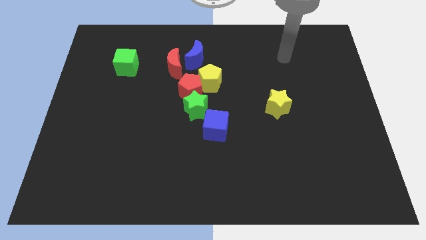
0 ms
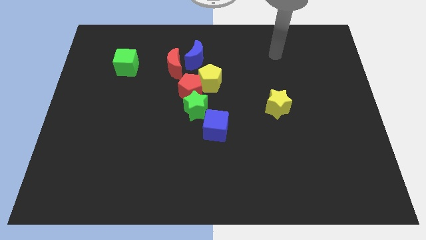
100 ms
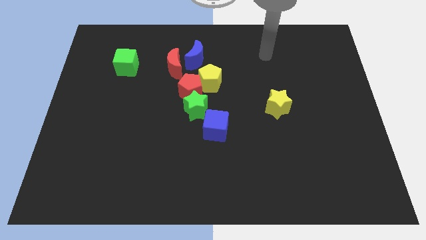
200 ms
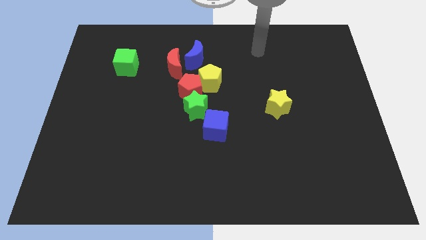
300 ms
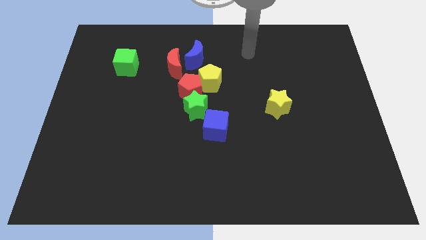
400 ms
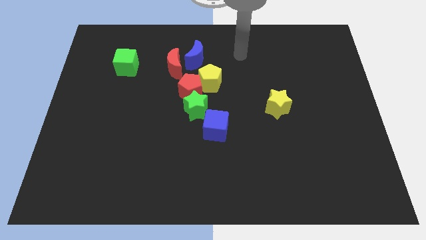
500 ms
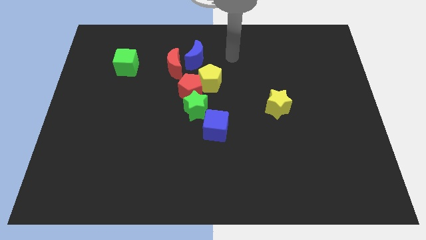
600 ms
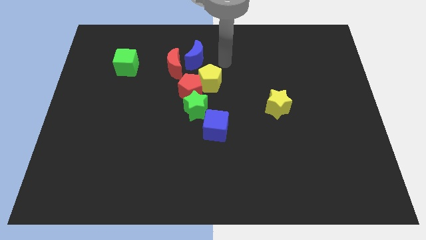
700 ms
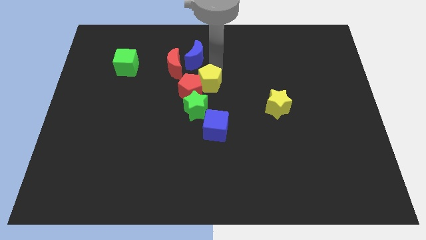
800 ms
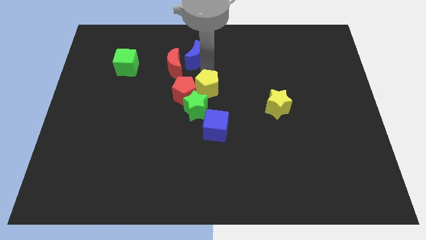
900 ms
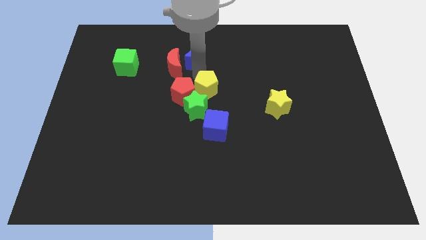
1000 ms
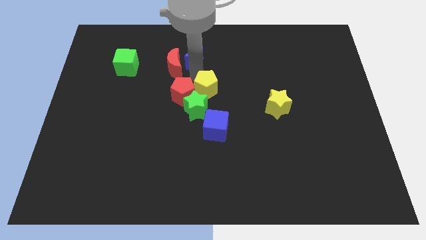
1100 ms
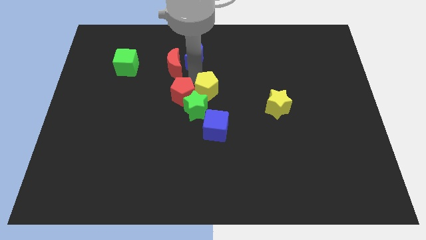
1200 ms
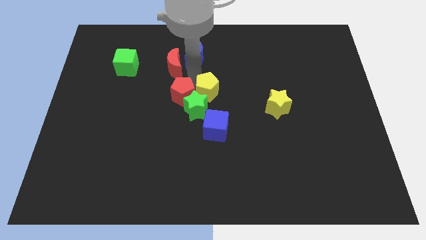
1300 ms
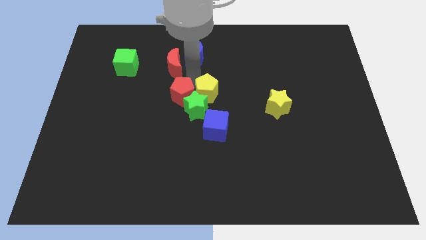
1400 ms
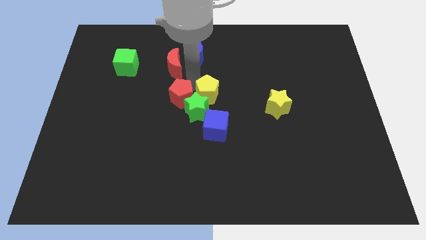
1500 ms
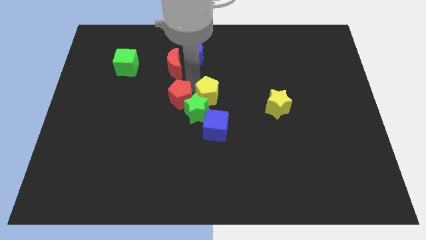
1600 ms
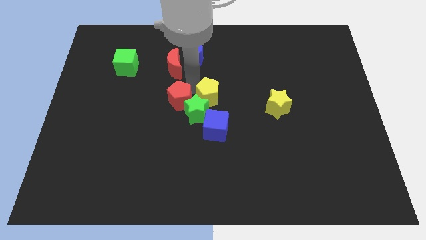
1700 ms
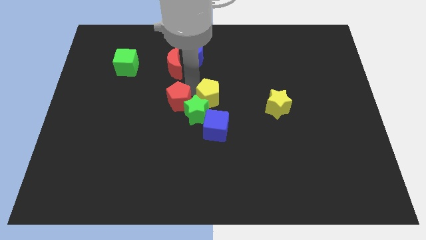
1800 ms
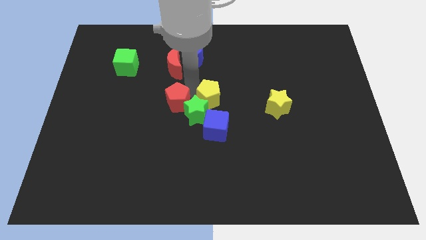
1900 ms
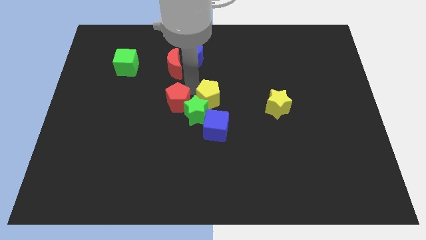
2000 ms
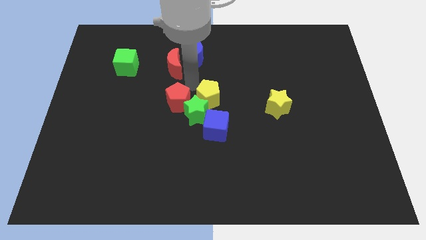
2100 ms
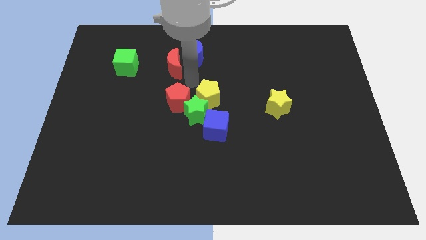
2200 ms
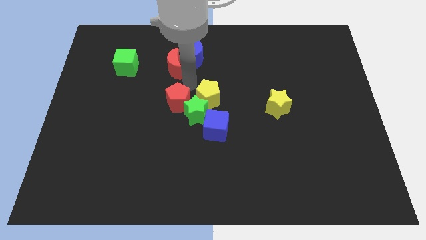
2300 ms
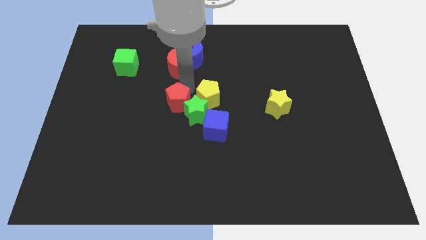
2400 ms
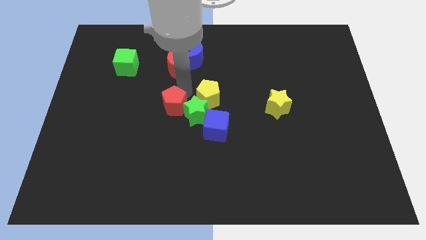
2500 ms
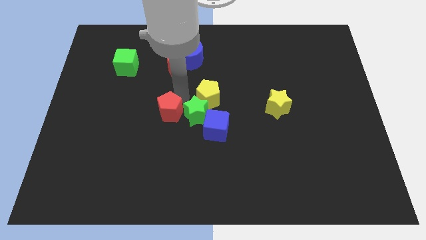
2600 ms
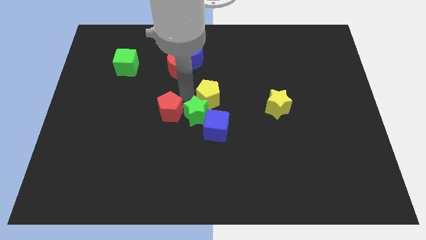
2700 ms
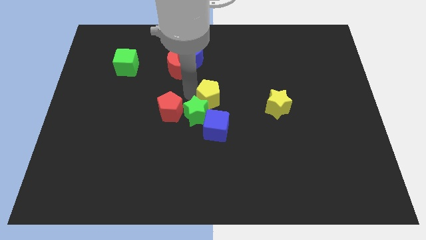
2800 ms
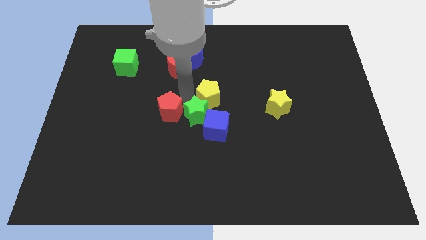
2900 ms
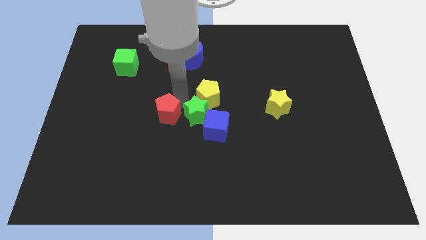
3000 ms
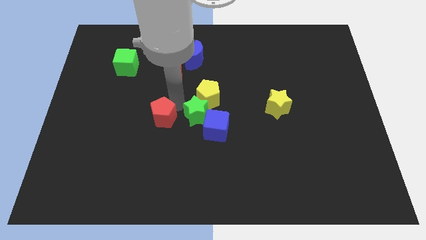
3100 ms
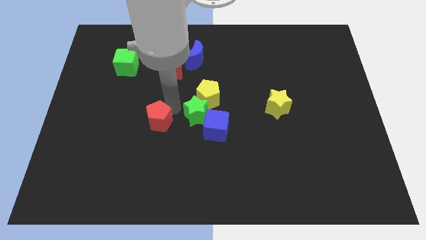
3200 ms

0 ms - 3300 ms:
pull the red pentagon apart from the clump

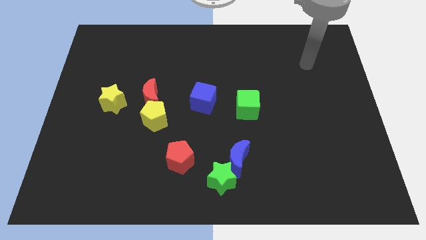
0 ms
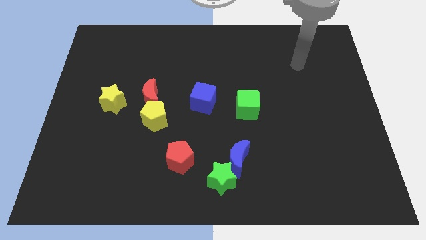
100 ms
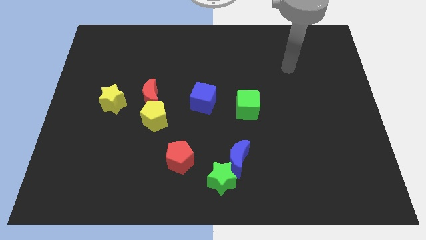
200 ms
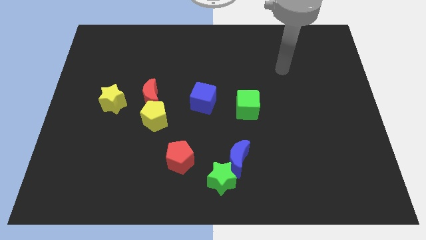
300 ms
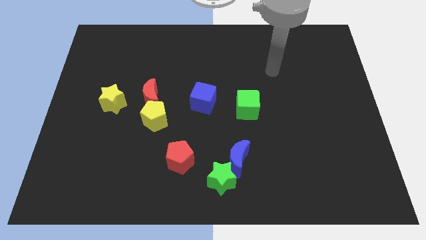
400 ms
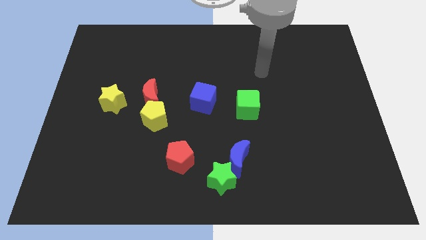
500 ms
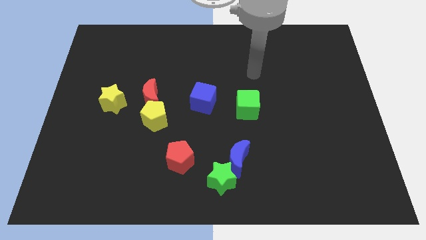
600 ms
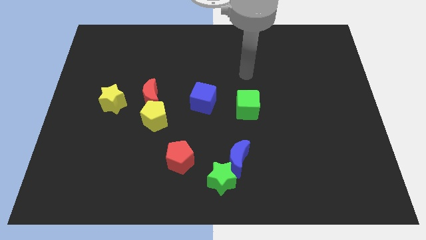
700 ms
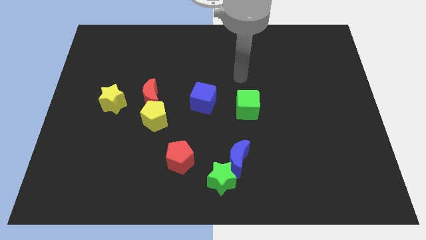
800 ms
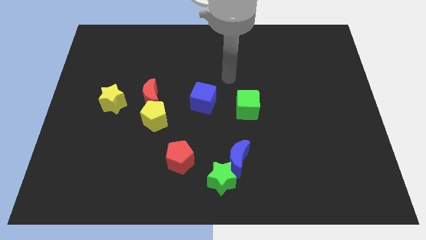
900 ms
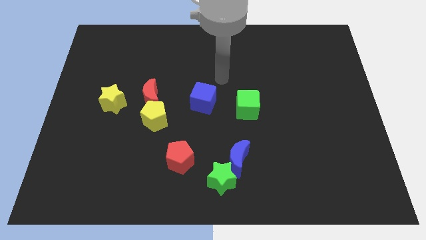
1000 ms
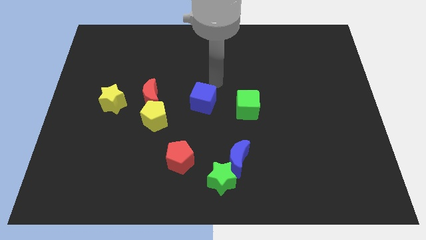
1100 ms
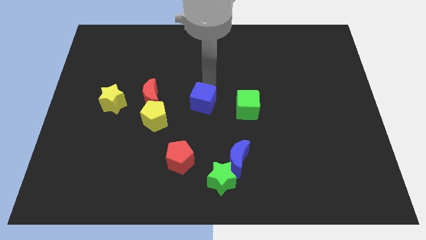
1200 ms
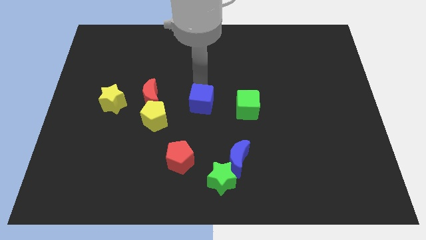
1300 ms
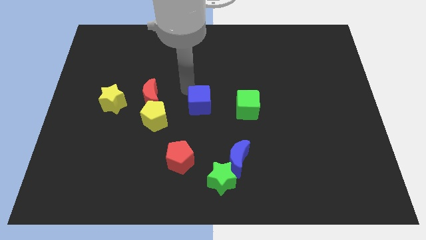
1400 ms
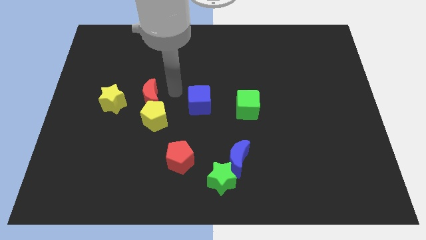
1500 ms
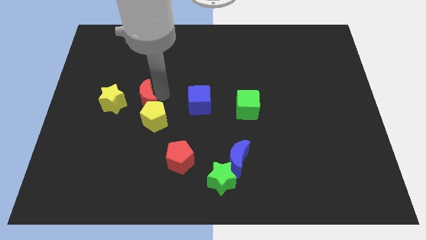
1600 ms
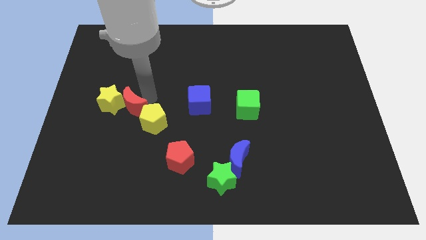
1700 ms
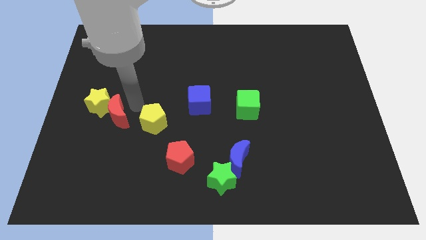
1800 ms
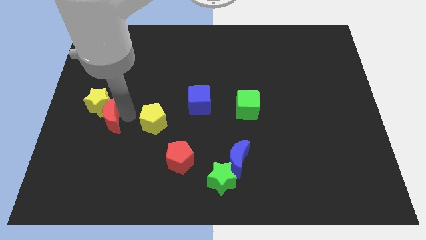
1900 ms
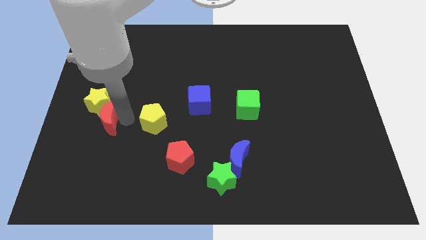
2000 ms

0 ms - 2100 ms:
move the yellow pentagon away from the red moon

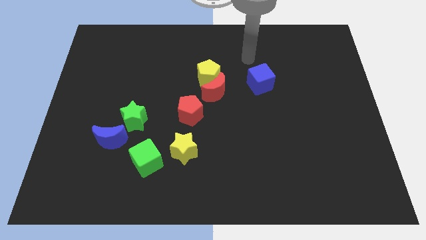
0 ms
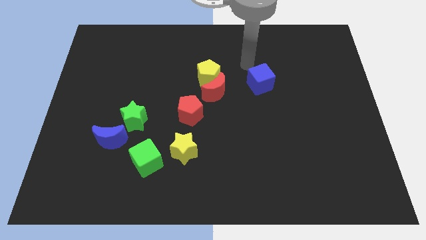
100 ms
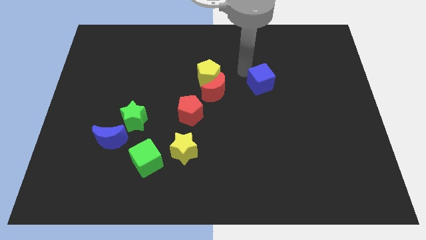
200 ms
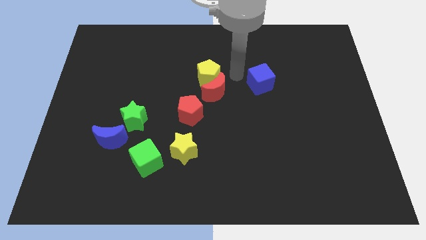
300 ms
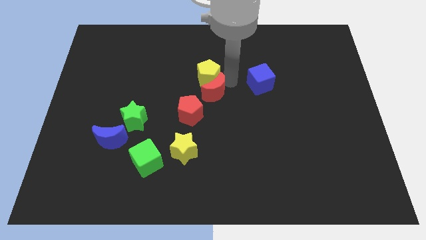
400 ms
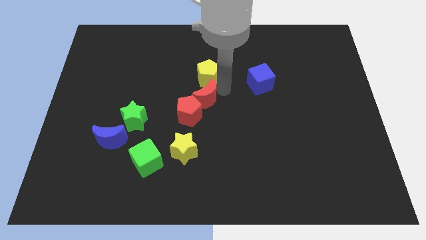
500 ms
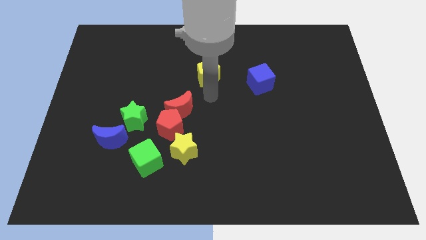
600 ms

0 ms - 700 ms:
pull the yellow pentagon apart from the red moon

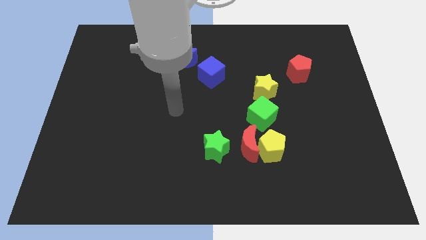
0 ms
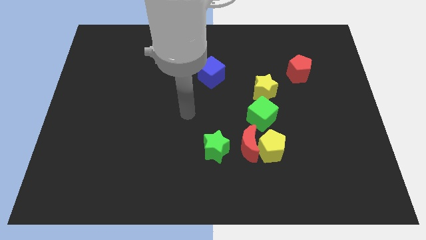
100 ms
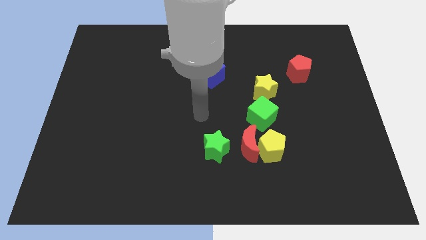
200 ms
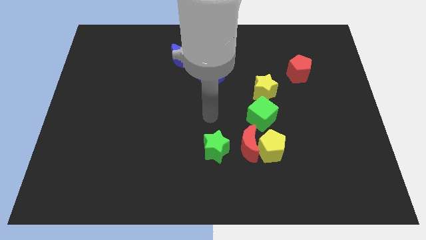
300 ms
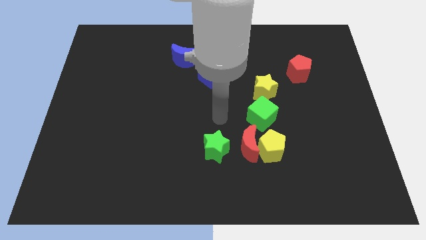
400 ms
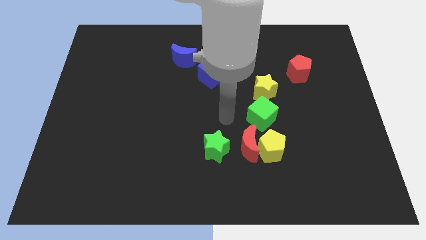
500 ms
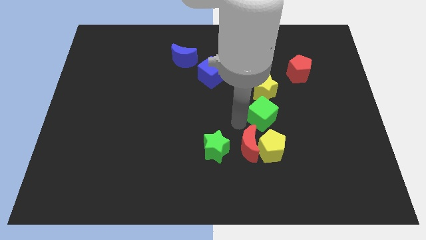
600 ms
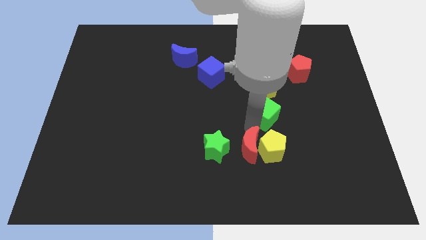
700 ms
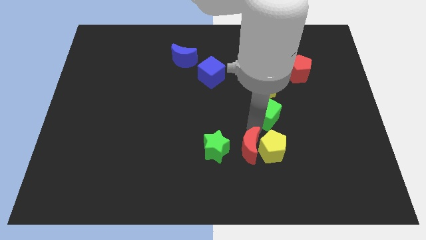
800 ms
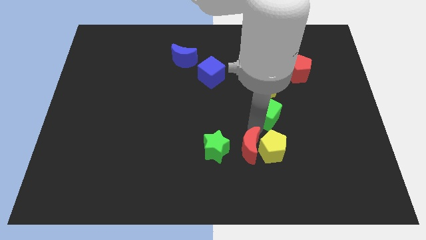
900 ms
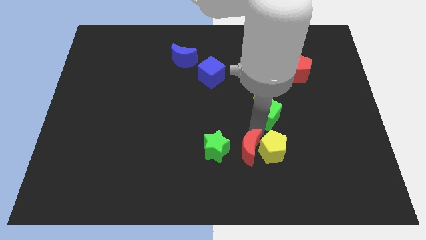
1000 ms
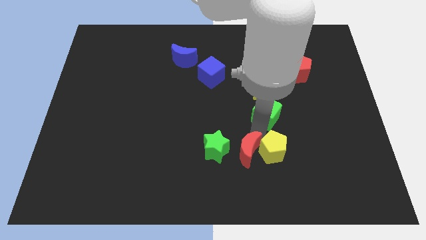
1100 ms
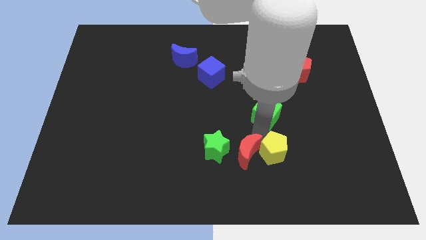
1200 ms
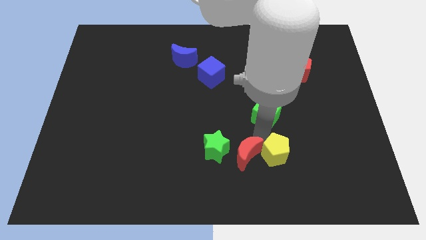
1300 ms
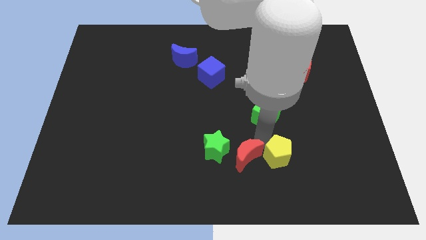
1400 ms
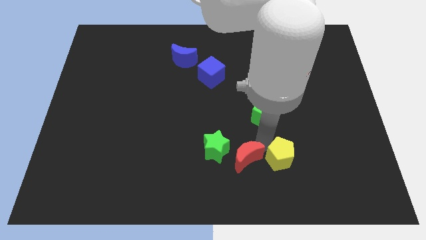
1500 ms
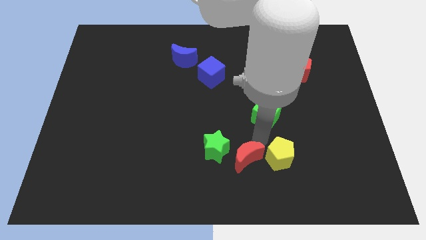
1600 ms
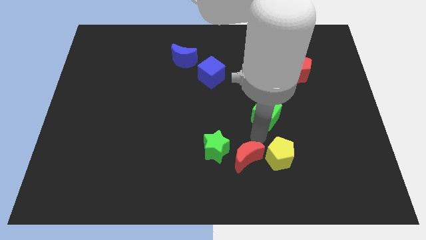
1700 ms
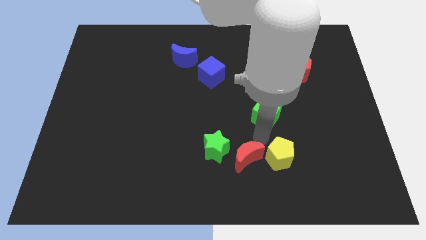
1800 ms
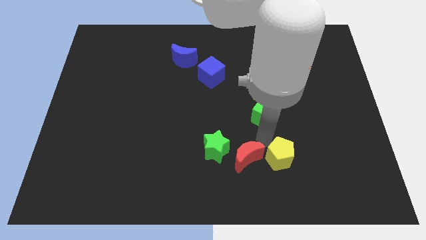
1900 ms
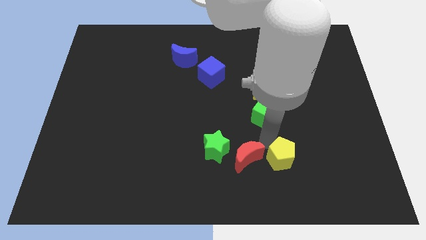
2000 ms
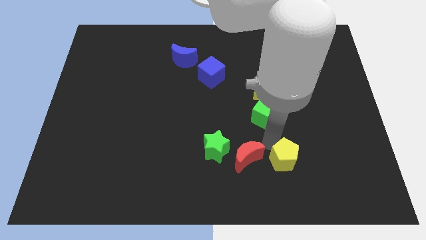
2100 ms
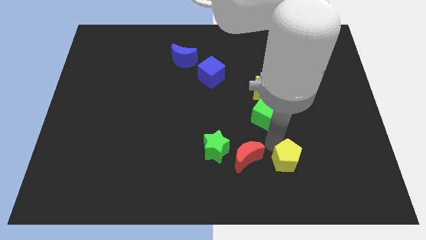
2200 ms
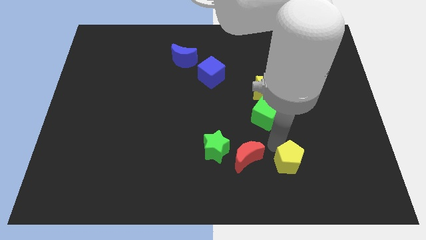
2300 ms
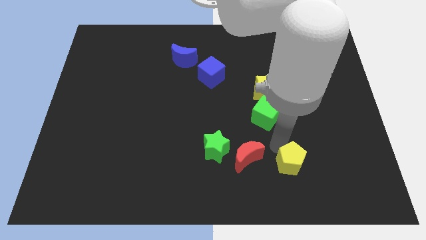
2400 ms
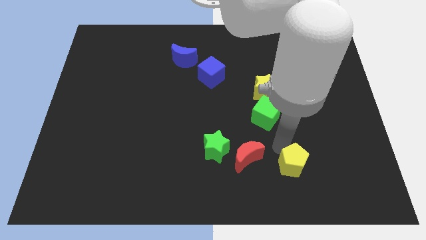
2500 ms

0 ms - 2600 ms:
move the yellow pentagon away from the red moon and green cube

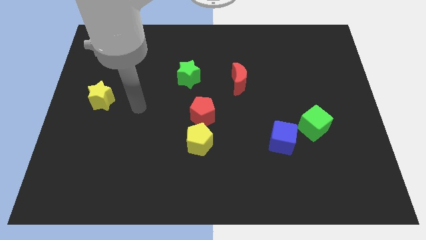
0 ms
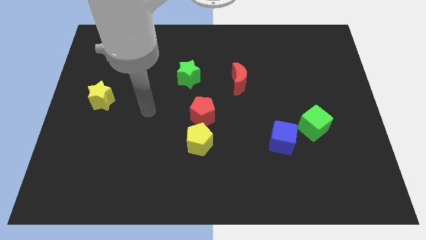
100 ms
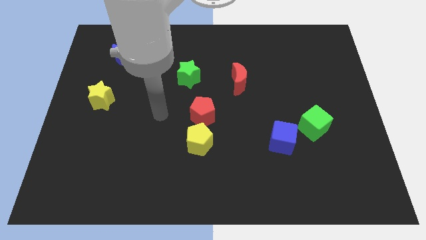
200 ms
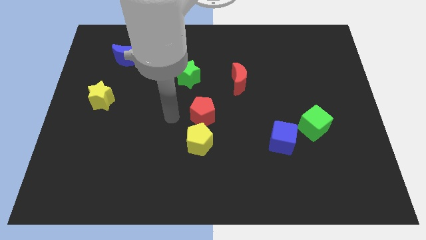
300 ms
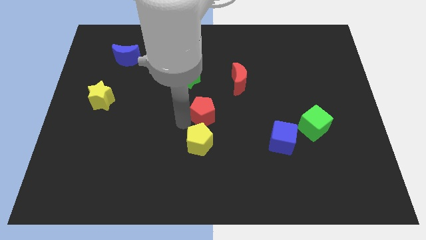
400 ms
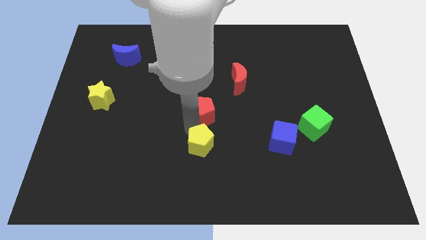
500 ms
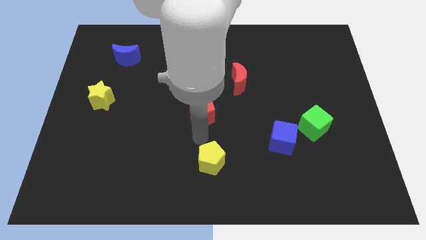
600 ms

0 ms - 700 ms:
separate the red pentagon from the yellow pentagon
